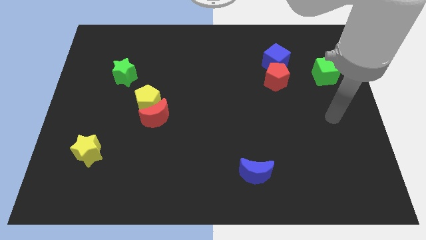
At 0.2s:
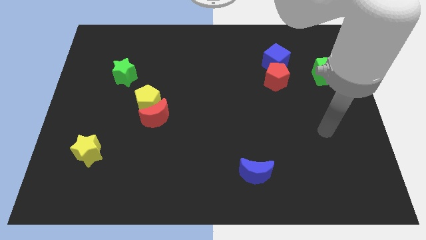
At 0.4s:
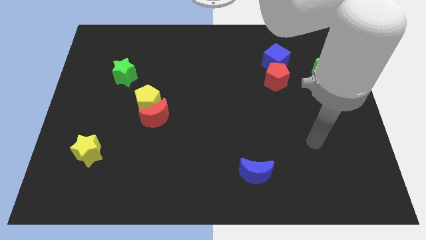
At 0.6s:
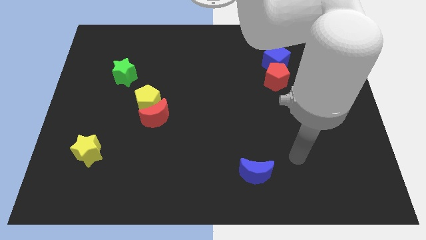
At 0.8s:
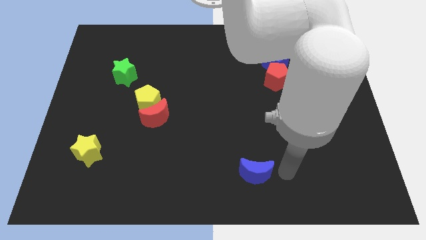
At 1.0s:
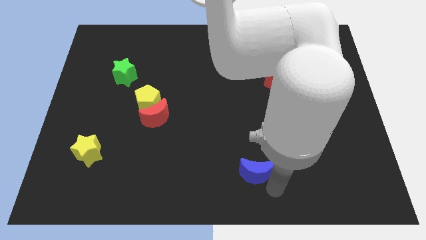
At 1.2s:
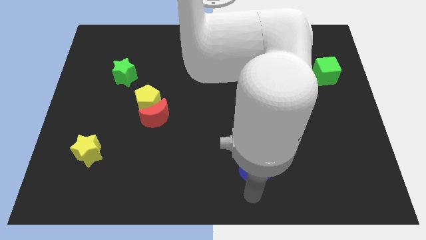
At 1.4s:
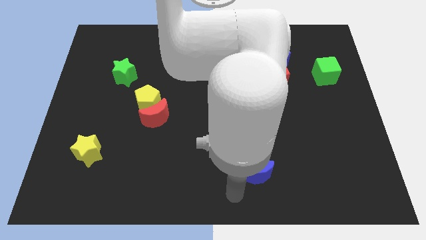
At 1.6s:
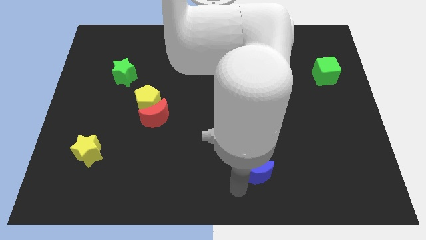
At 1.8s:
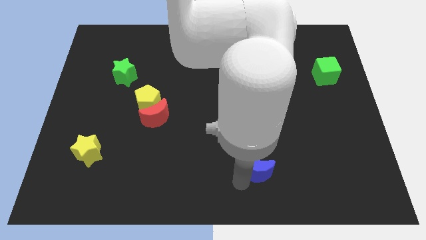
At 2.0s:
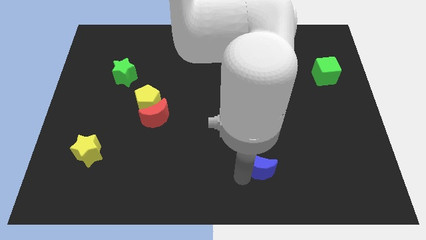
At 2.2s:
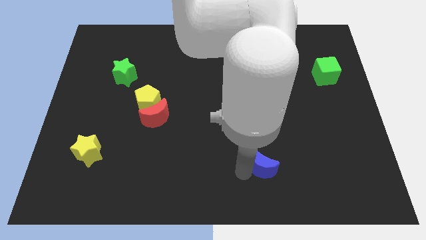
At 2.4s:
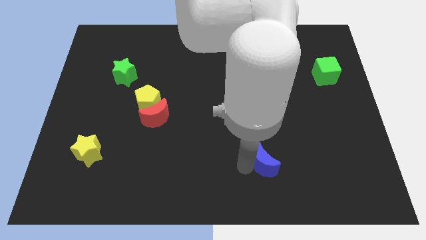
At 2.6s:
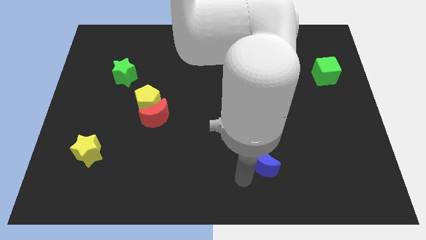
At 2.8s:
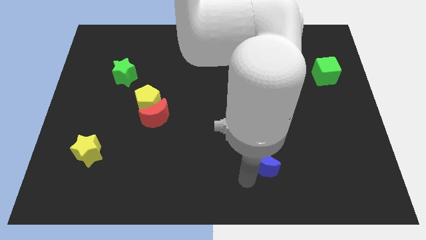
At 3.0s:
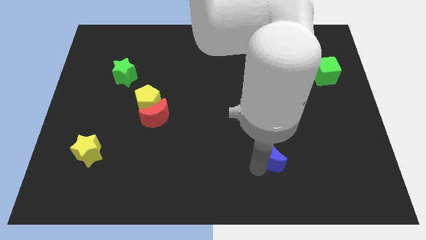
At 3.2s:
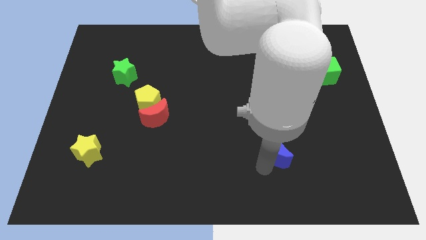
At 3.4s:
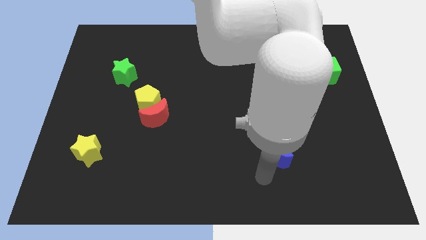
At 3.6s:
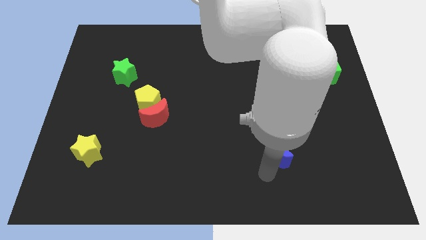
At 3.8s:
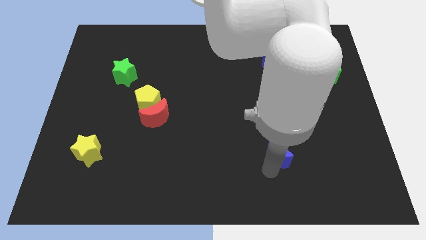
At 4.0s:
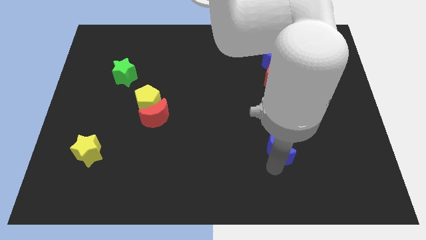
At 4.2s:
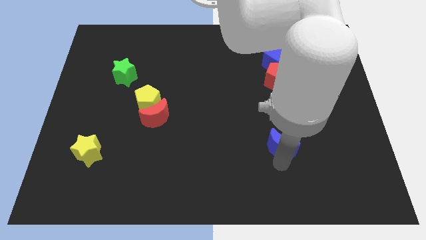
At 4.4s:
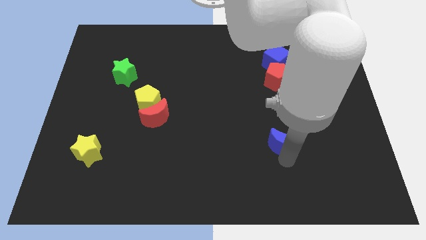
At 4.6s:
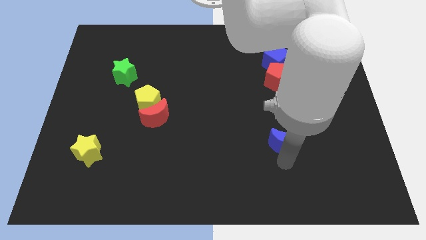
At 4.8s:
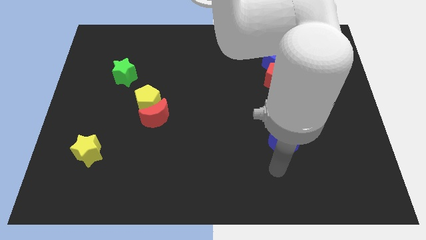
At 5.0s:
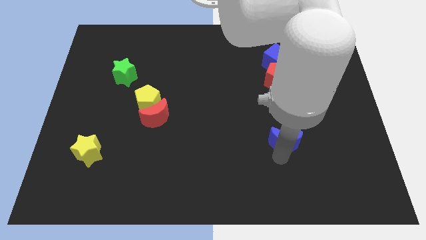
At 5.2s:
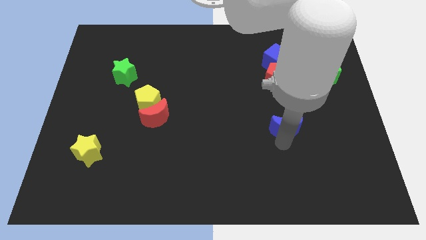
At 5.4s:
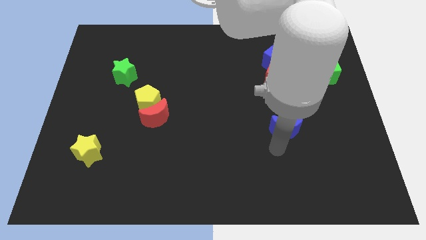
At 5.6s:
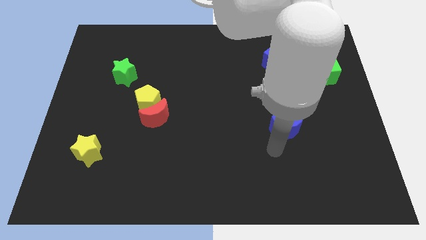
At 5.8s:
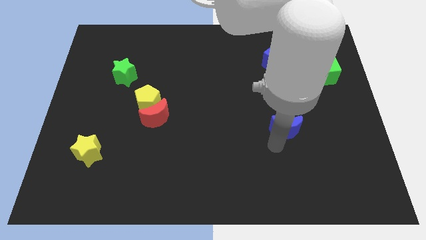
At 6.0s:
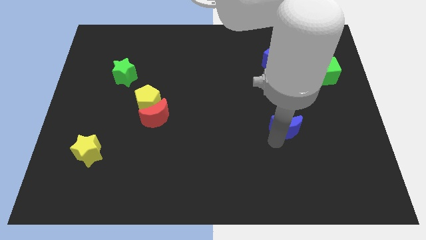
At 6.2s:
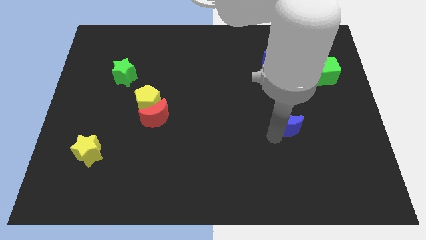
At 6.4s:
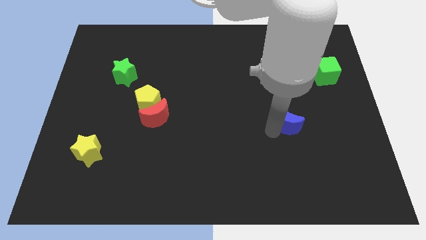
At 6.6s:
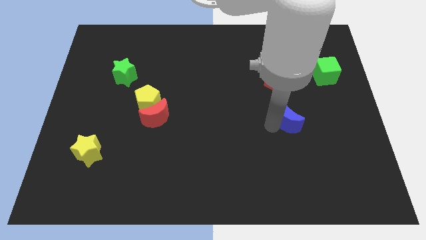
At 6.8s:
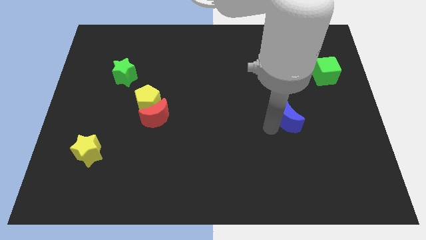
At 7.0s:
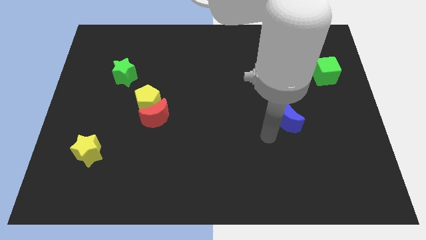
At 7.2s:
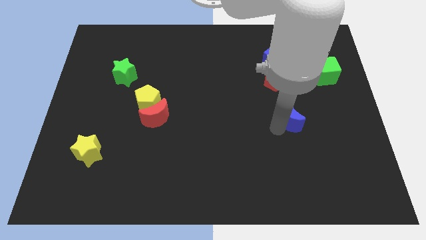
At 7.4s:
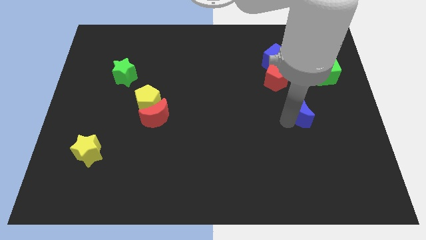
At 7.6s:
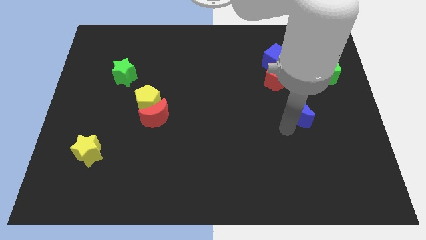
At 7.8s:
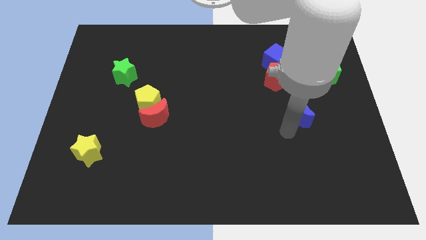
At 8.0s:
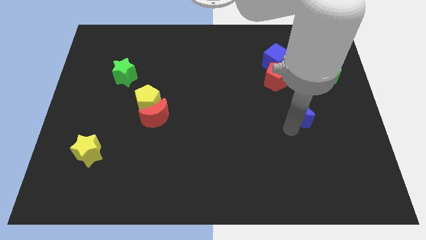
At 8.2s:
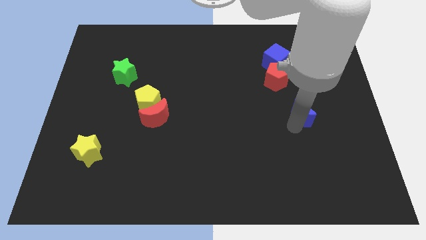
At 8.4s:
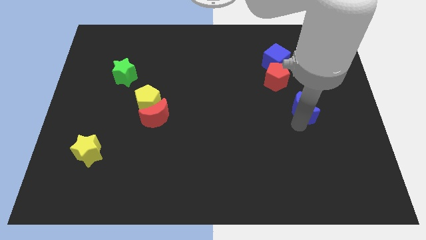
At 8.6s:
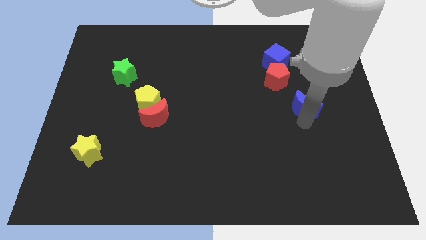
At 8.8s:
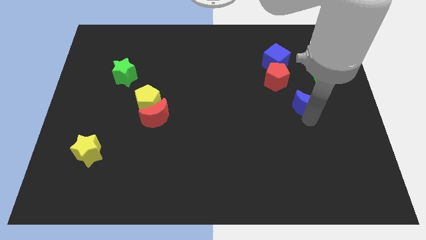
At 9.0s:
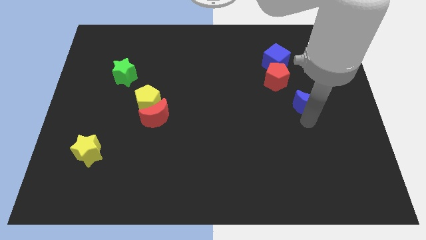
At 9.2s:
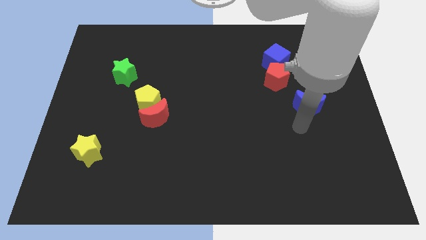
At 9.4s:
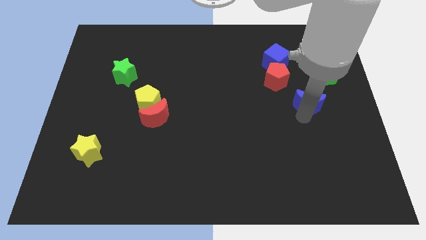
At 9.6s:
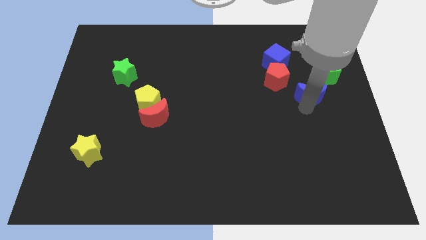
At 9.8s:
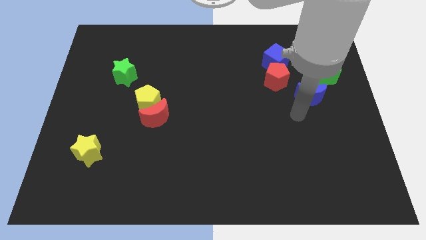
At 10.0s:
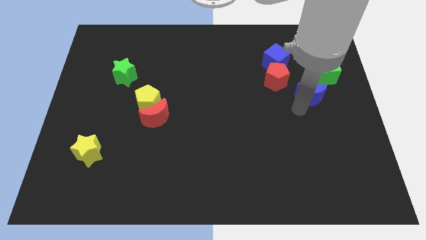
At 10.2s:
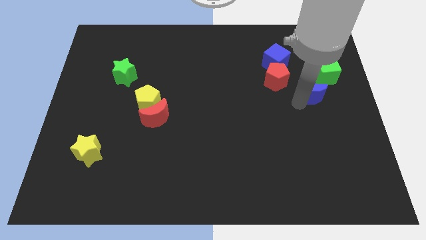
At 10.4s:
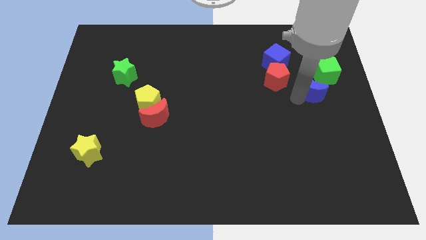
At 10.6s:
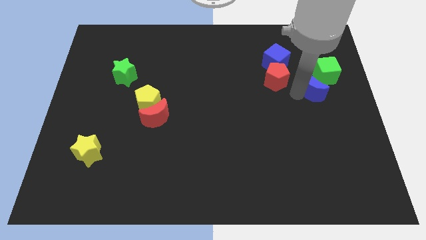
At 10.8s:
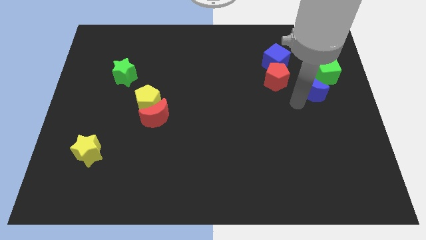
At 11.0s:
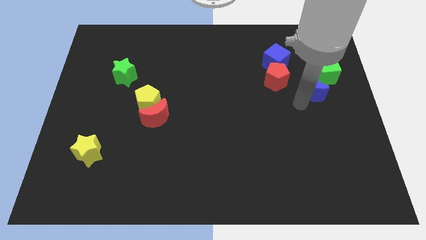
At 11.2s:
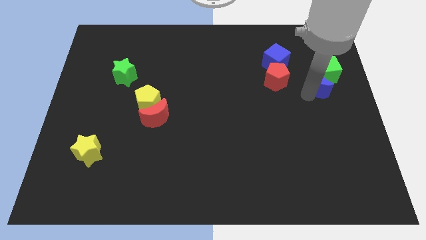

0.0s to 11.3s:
put the blue moon to the green cube

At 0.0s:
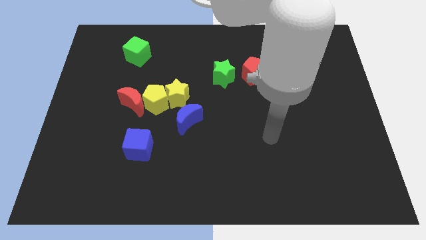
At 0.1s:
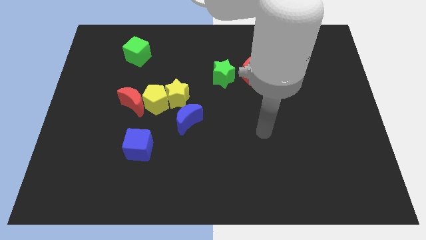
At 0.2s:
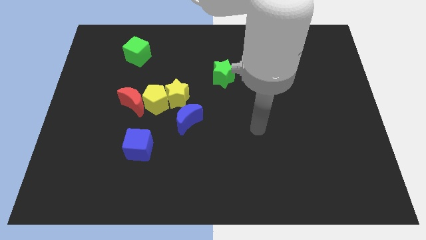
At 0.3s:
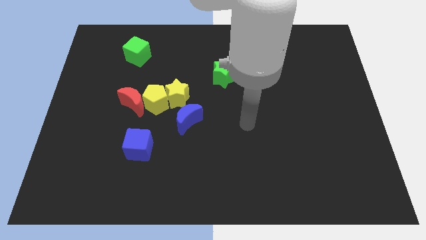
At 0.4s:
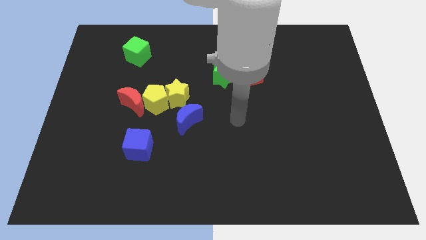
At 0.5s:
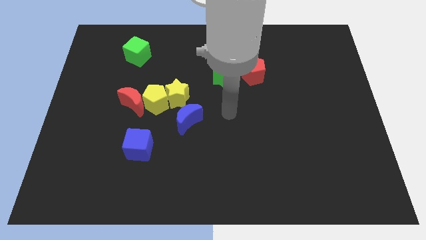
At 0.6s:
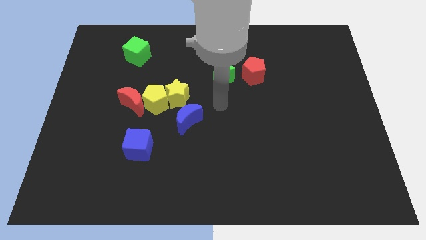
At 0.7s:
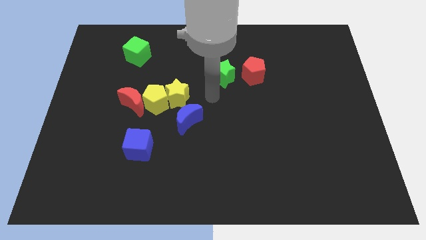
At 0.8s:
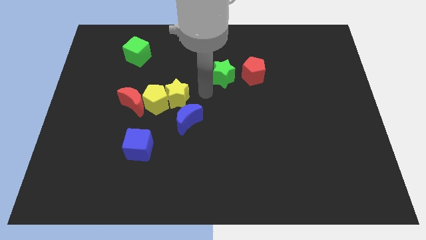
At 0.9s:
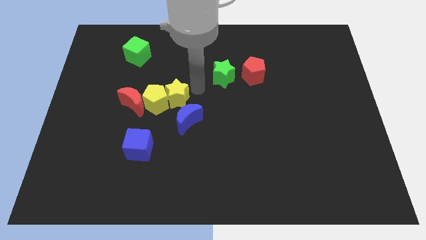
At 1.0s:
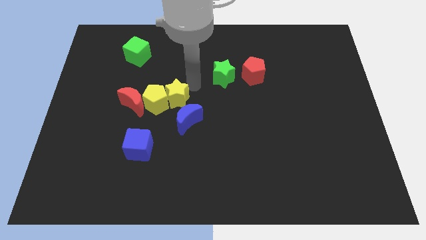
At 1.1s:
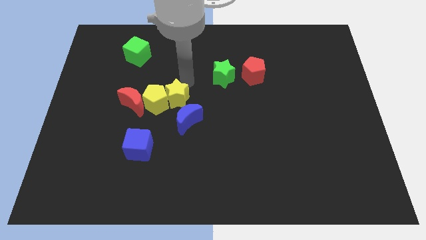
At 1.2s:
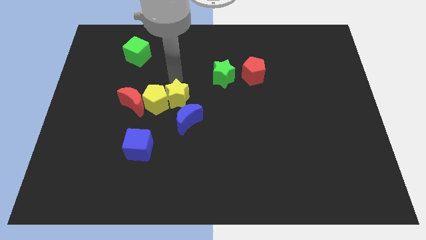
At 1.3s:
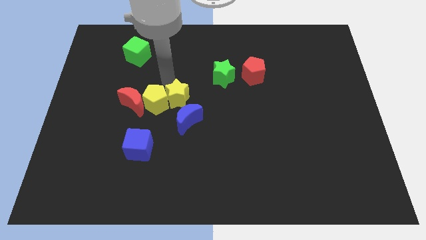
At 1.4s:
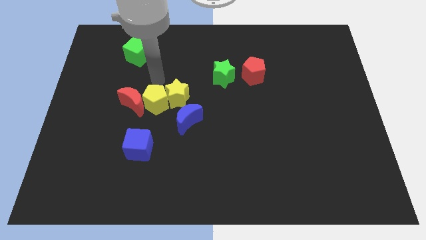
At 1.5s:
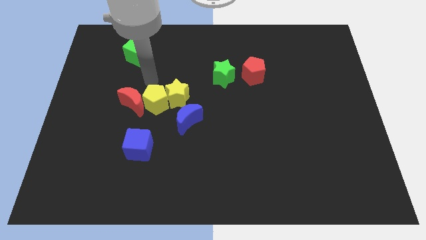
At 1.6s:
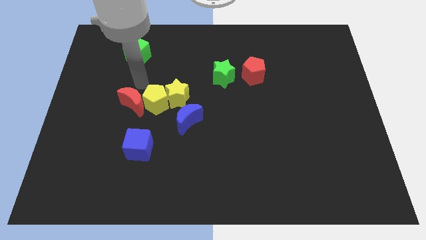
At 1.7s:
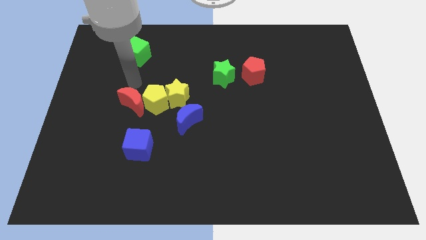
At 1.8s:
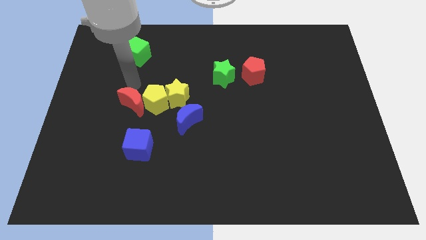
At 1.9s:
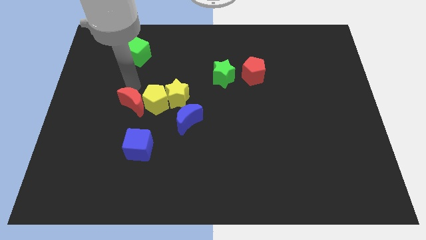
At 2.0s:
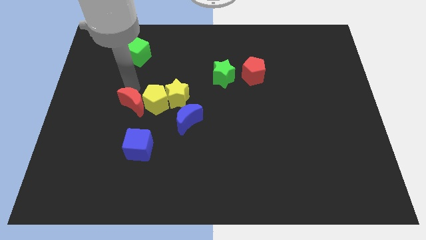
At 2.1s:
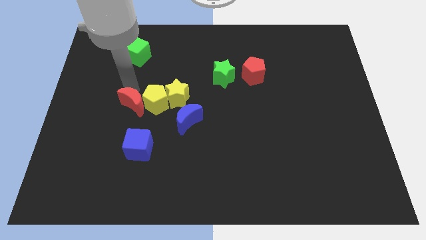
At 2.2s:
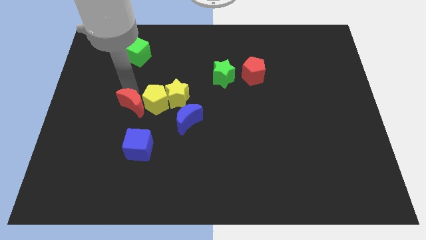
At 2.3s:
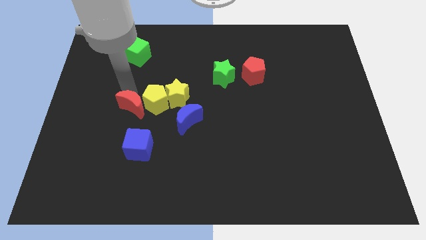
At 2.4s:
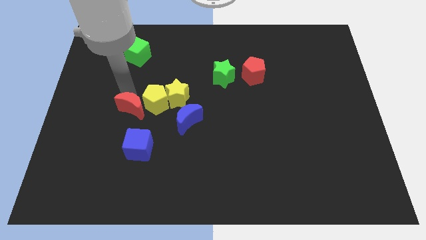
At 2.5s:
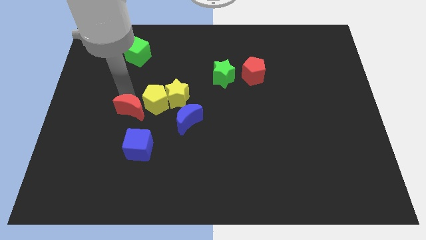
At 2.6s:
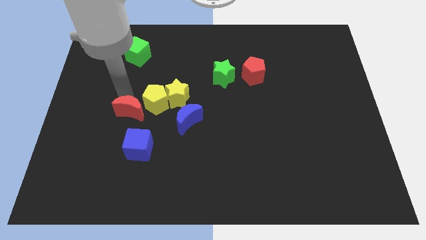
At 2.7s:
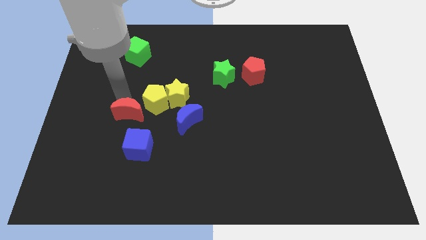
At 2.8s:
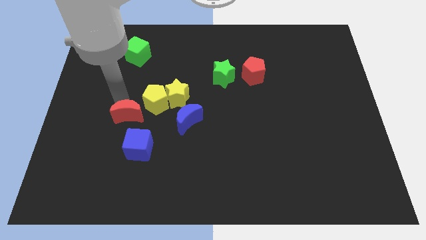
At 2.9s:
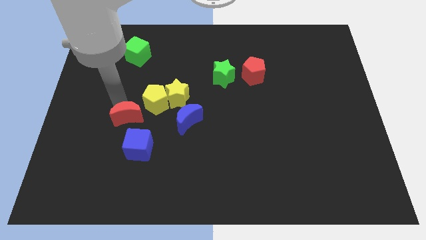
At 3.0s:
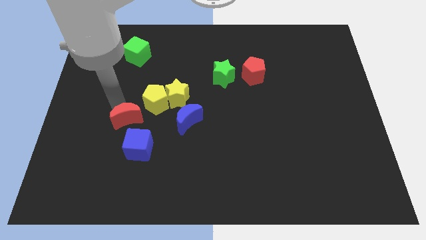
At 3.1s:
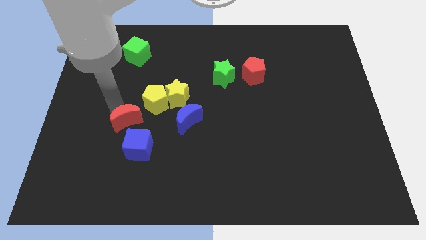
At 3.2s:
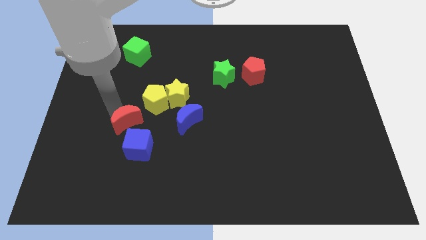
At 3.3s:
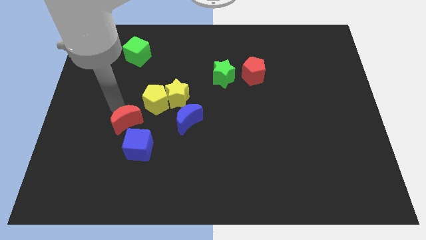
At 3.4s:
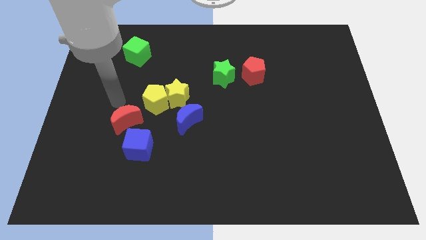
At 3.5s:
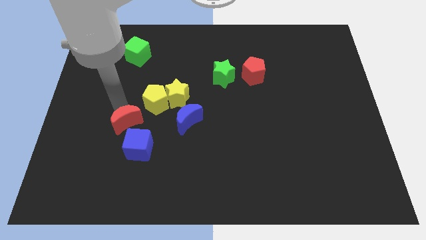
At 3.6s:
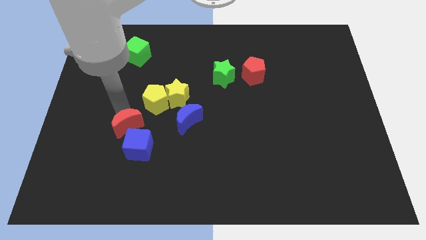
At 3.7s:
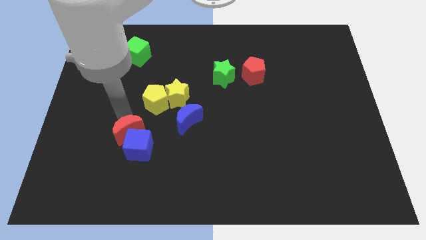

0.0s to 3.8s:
put the red moon close to the blue cube
